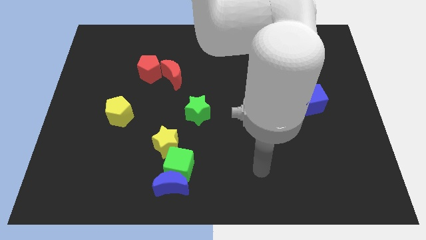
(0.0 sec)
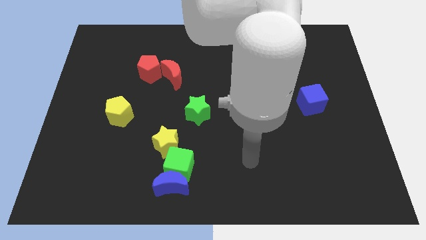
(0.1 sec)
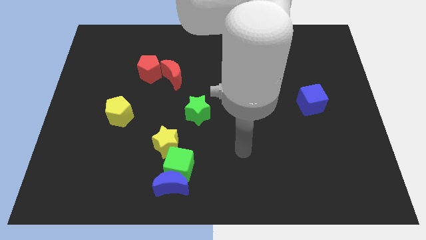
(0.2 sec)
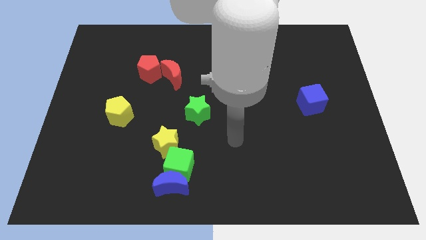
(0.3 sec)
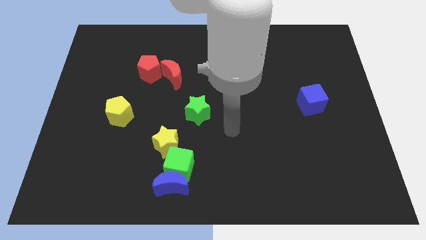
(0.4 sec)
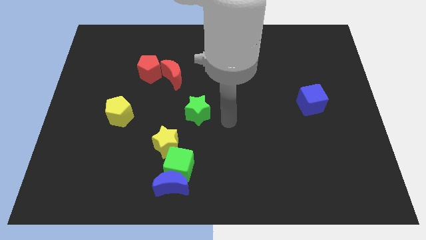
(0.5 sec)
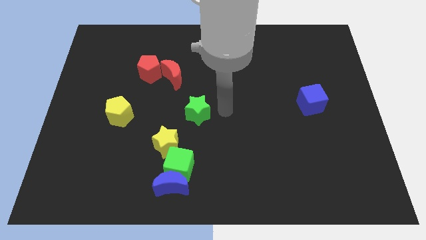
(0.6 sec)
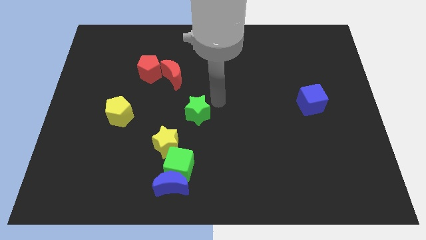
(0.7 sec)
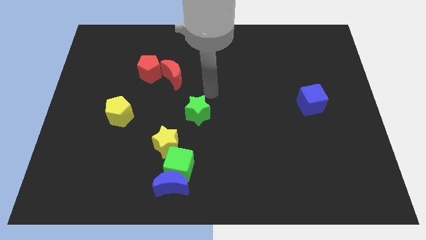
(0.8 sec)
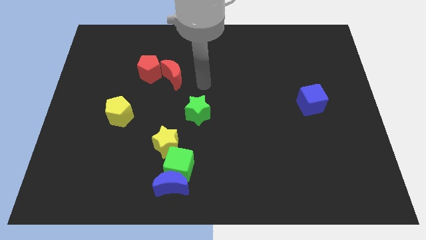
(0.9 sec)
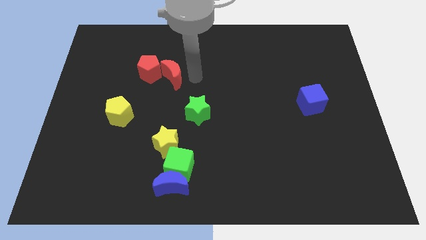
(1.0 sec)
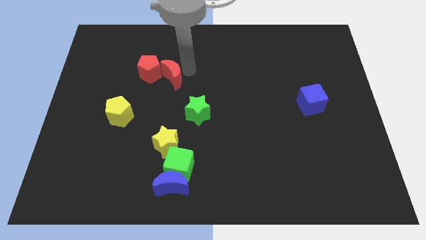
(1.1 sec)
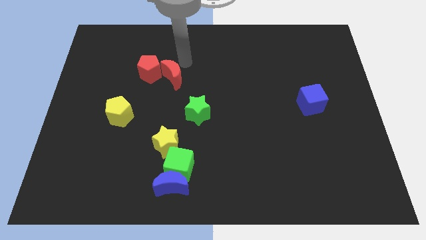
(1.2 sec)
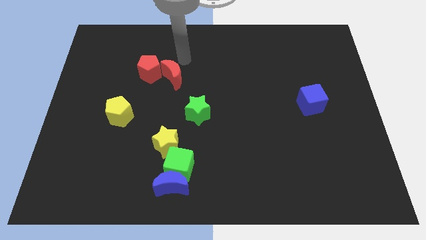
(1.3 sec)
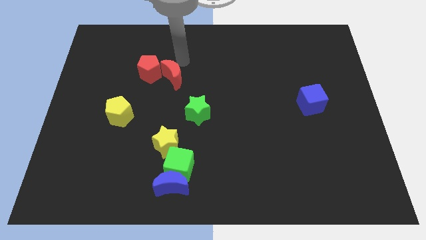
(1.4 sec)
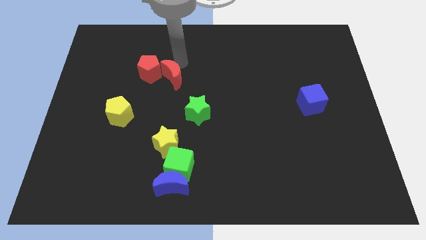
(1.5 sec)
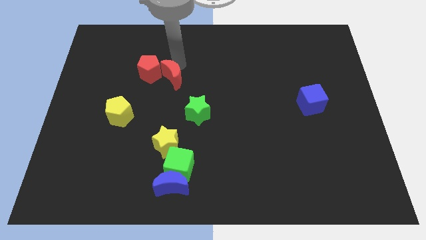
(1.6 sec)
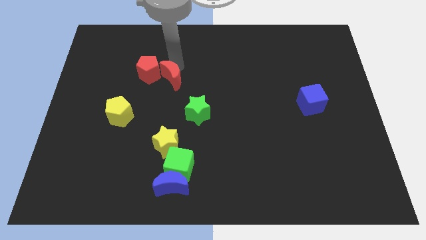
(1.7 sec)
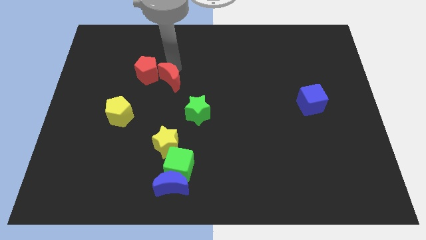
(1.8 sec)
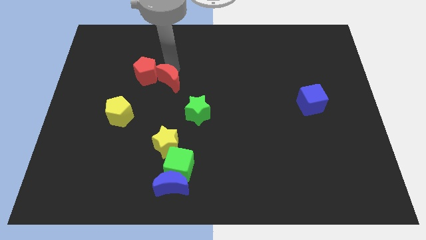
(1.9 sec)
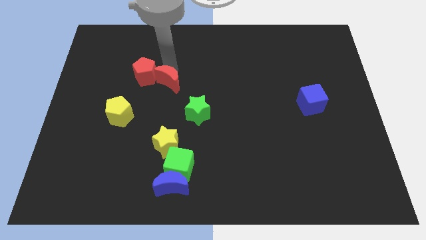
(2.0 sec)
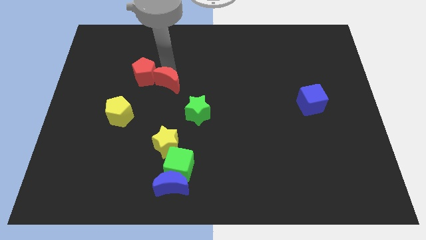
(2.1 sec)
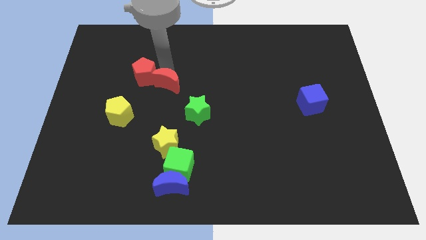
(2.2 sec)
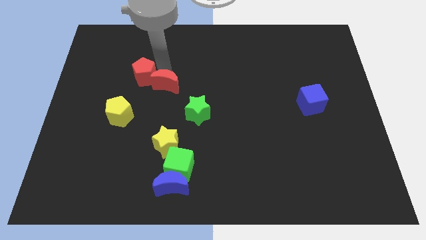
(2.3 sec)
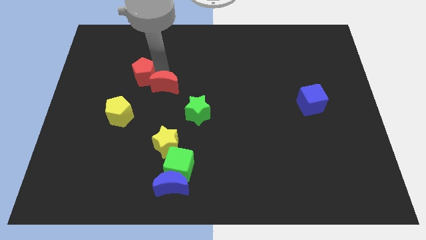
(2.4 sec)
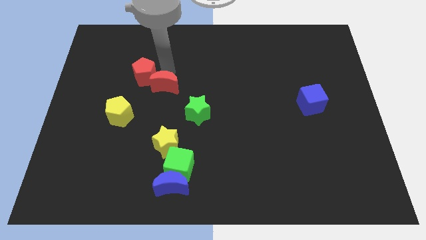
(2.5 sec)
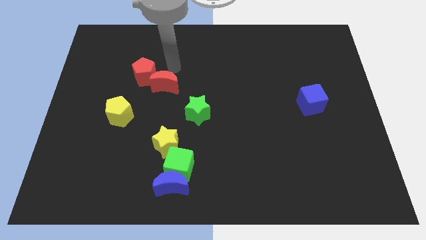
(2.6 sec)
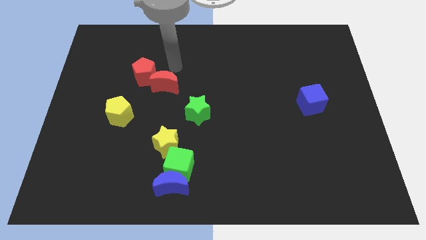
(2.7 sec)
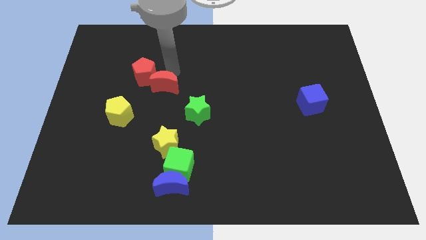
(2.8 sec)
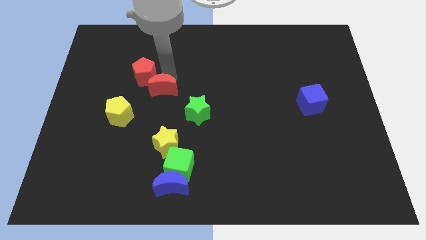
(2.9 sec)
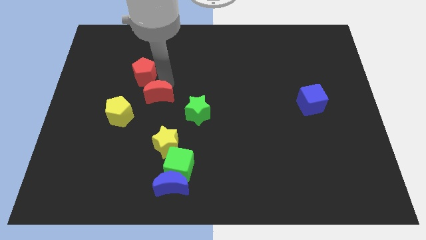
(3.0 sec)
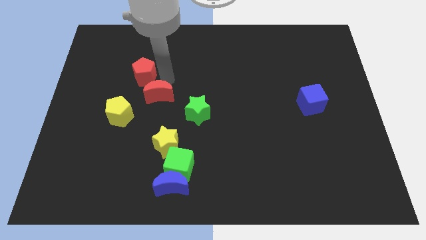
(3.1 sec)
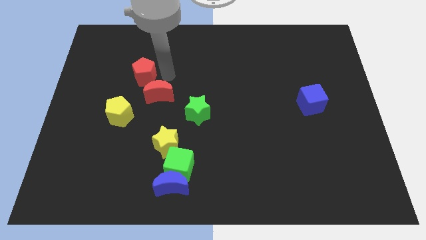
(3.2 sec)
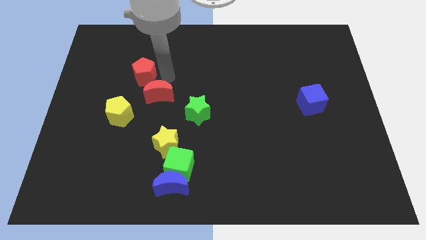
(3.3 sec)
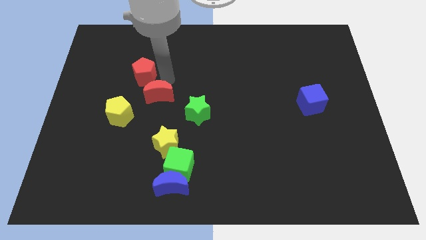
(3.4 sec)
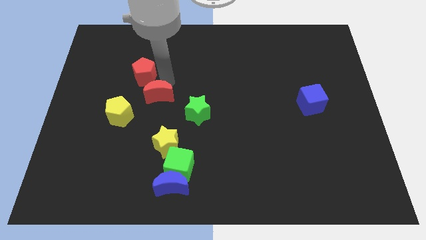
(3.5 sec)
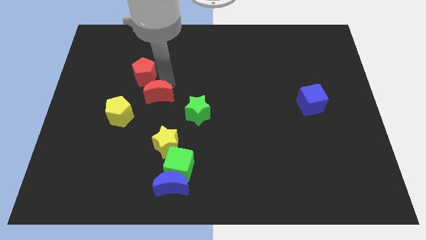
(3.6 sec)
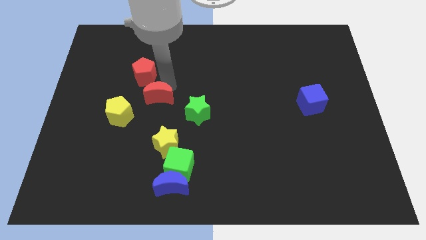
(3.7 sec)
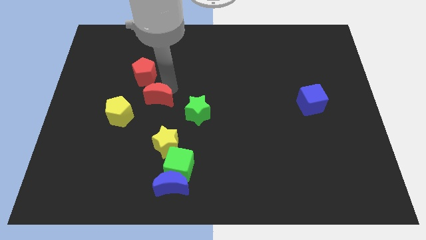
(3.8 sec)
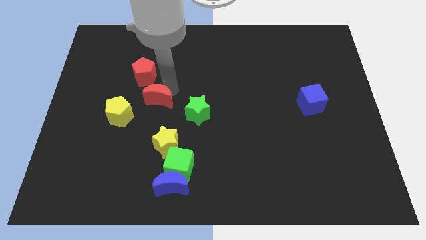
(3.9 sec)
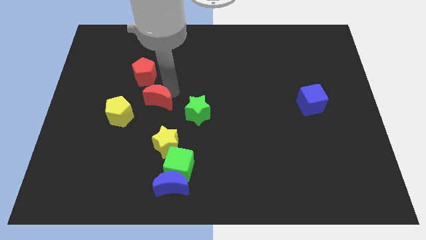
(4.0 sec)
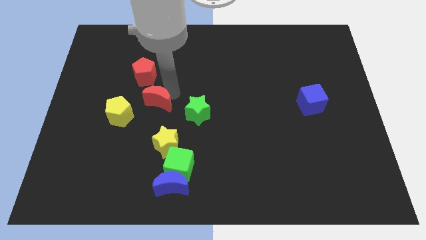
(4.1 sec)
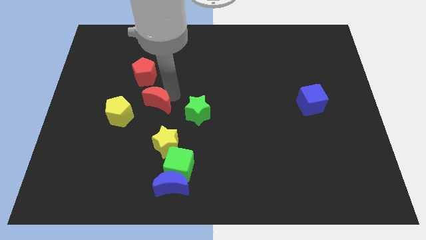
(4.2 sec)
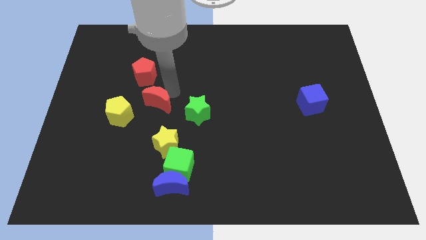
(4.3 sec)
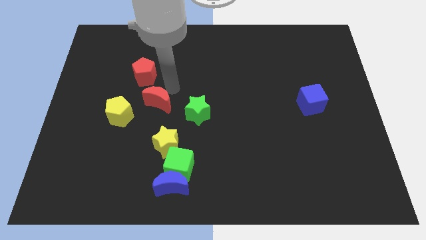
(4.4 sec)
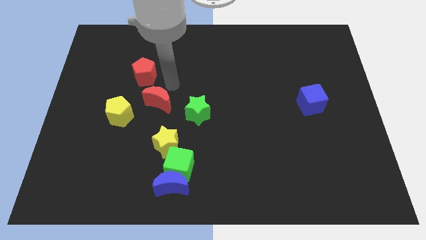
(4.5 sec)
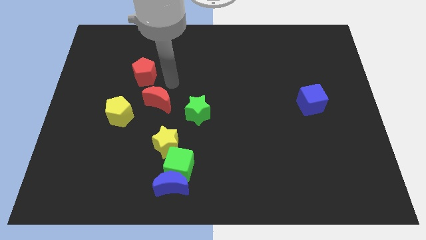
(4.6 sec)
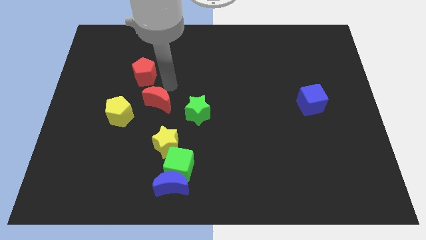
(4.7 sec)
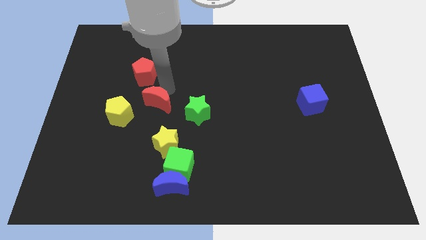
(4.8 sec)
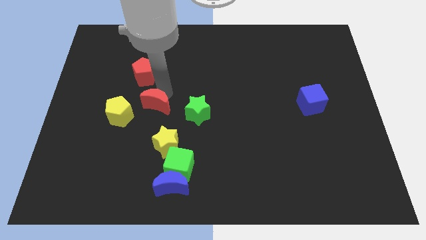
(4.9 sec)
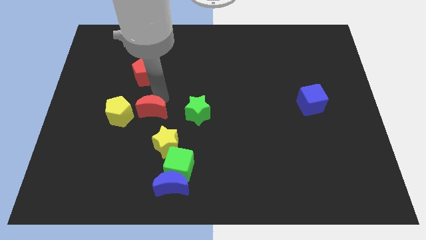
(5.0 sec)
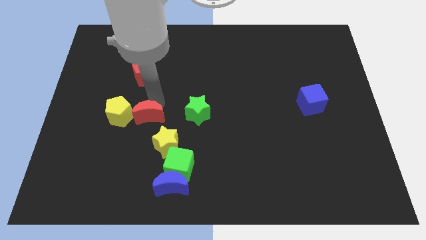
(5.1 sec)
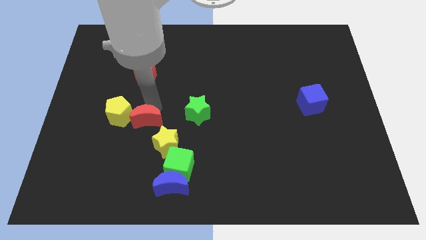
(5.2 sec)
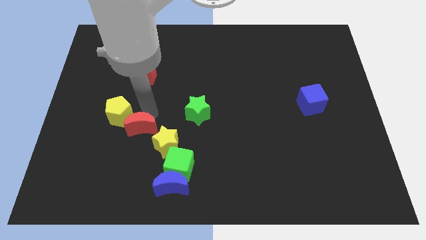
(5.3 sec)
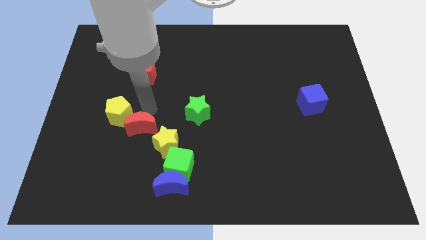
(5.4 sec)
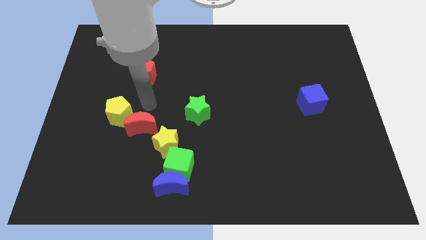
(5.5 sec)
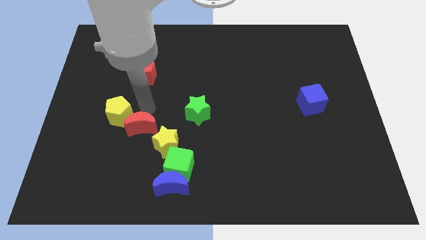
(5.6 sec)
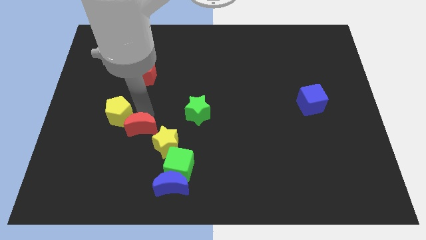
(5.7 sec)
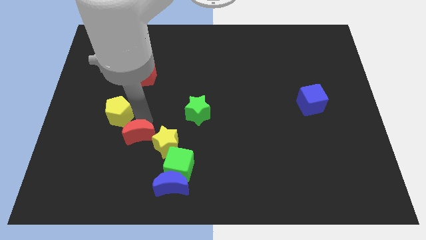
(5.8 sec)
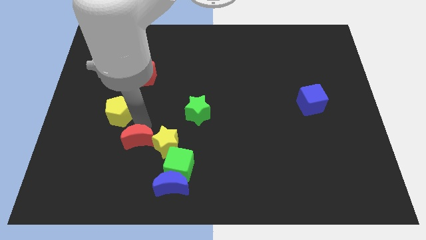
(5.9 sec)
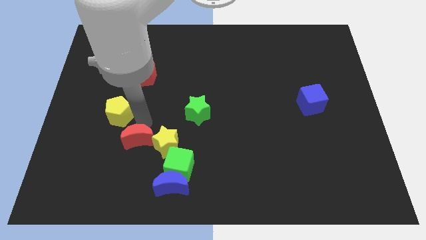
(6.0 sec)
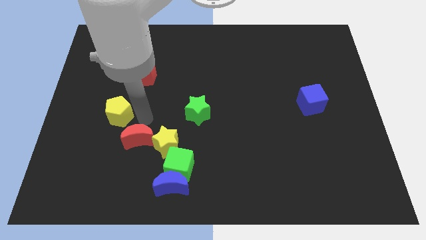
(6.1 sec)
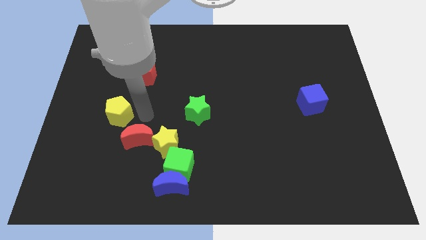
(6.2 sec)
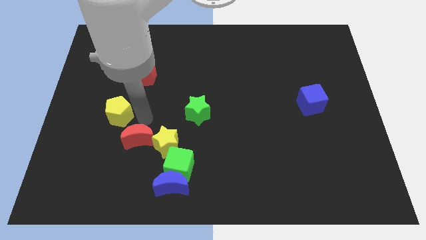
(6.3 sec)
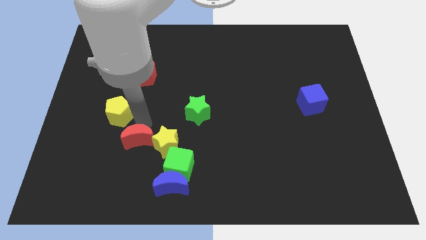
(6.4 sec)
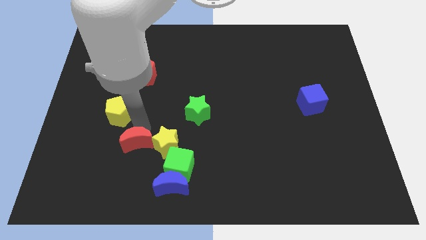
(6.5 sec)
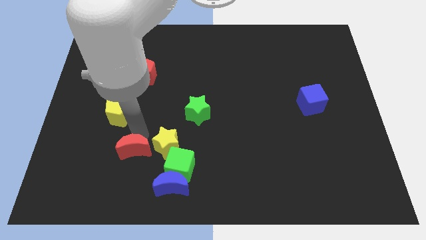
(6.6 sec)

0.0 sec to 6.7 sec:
slide the red moon left of the green cube

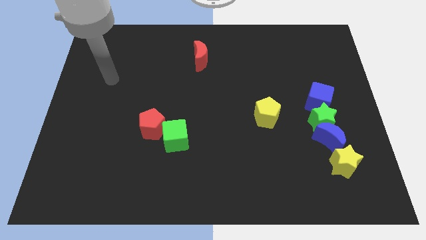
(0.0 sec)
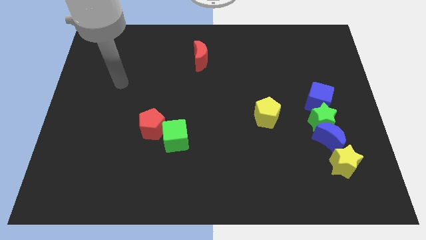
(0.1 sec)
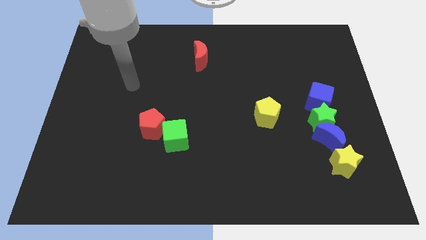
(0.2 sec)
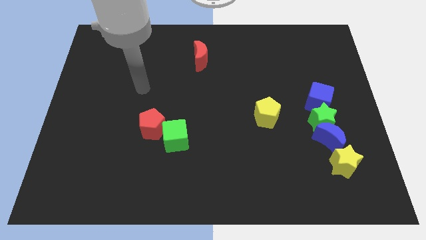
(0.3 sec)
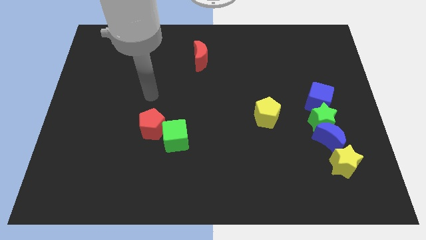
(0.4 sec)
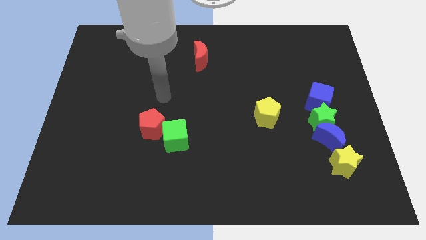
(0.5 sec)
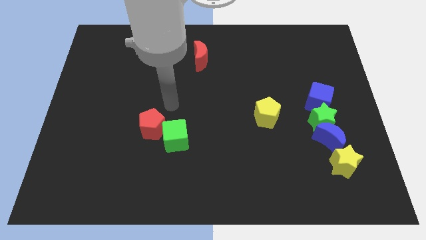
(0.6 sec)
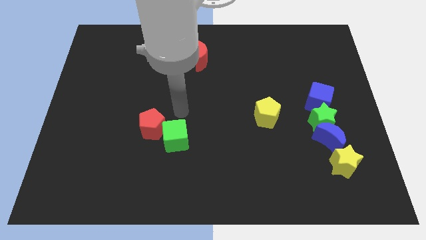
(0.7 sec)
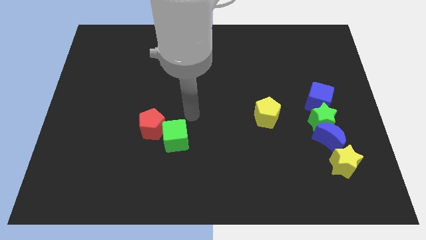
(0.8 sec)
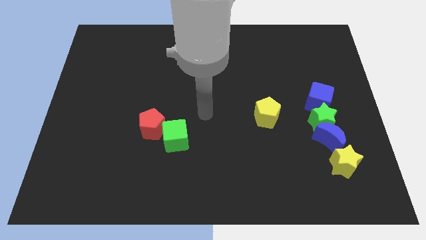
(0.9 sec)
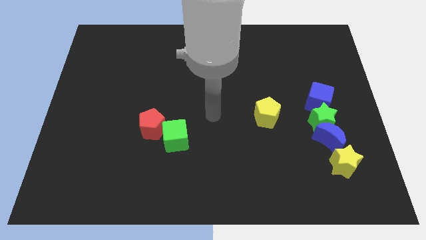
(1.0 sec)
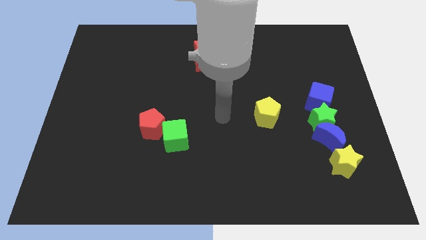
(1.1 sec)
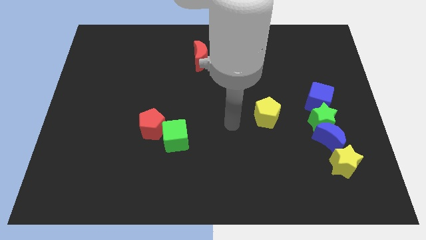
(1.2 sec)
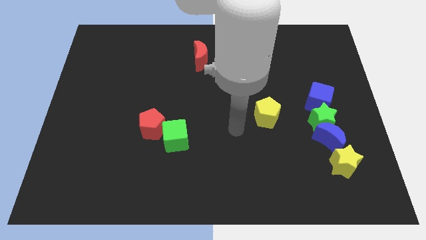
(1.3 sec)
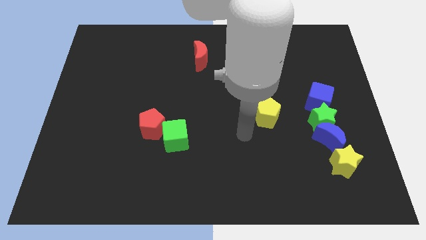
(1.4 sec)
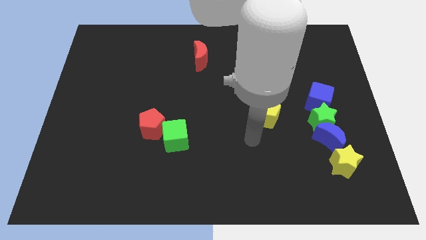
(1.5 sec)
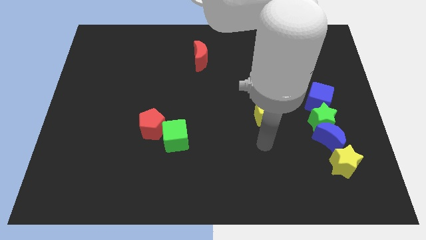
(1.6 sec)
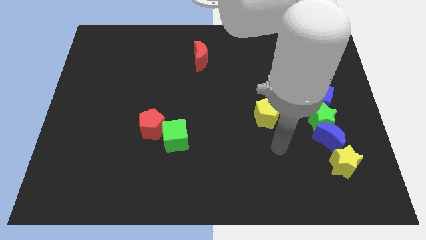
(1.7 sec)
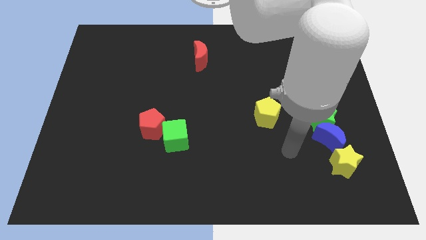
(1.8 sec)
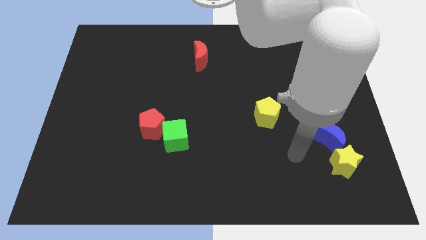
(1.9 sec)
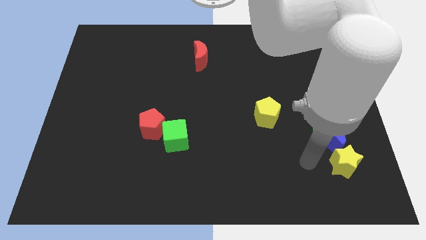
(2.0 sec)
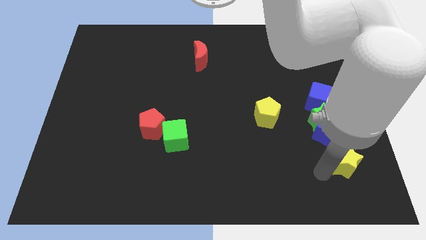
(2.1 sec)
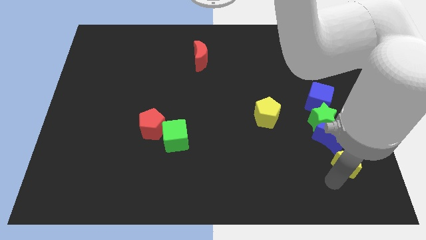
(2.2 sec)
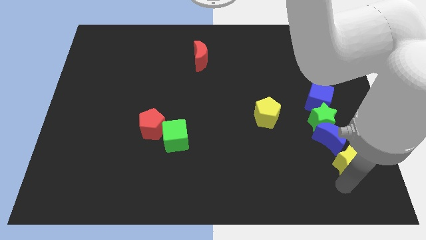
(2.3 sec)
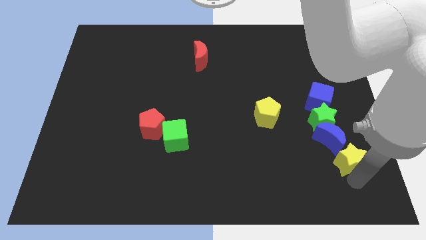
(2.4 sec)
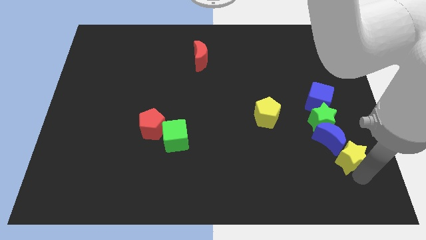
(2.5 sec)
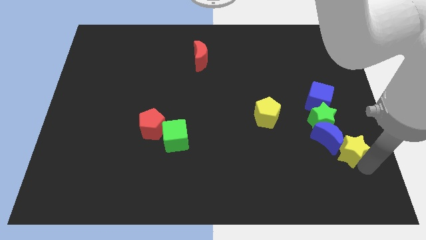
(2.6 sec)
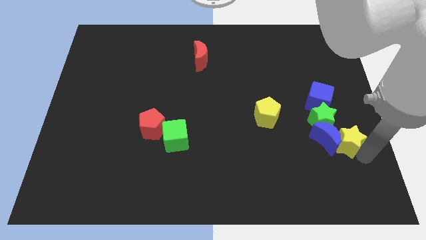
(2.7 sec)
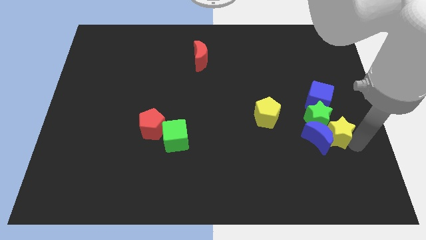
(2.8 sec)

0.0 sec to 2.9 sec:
put the blue moon diagonally down and to the right of the yellow pentagon
